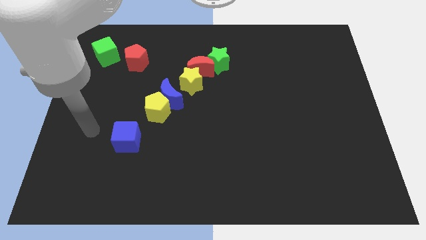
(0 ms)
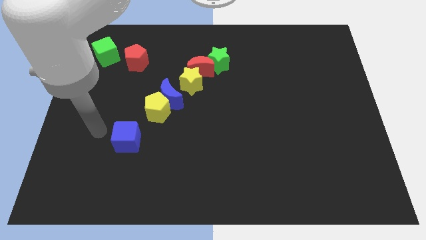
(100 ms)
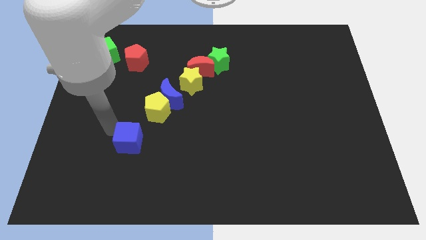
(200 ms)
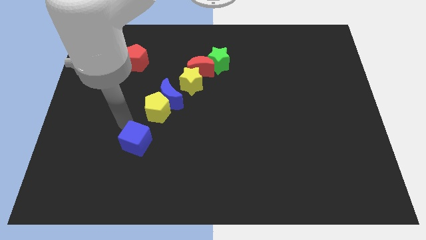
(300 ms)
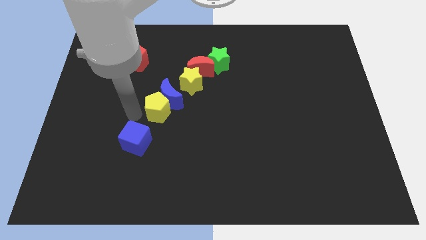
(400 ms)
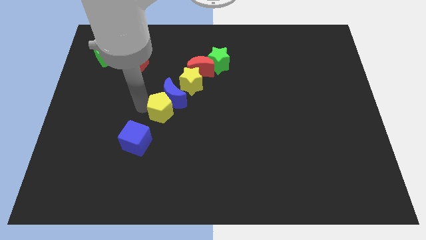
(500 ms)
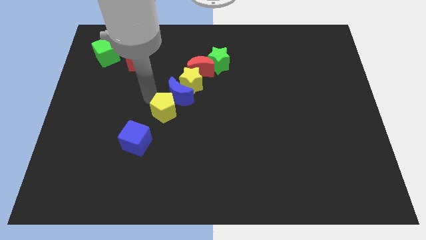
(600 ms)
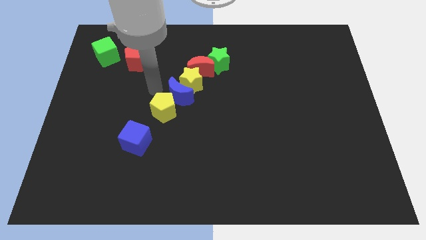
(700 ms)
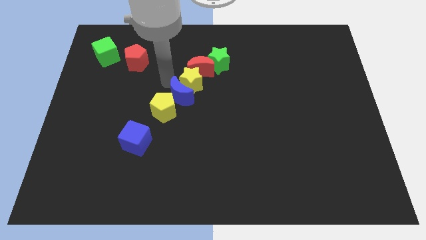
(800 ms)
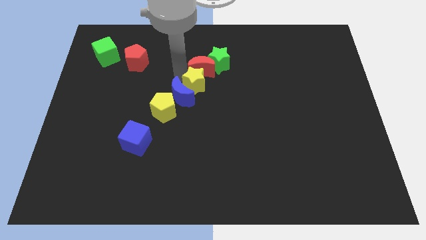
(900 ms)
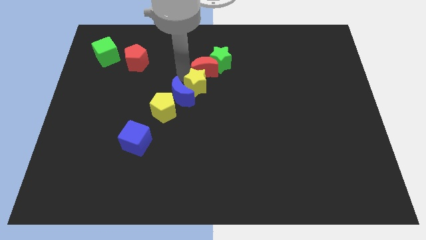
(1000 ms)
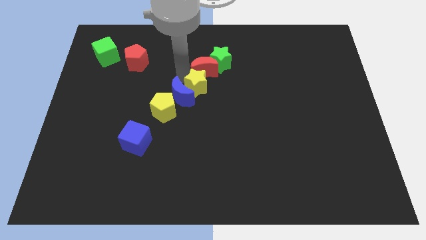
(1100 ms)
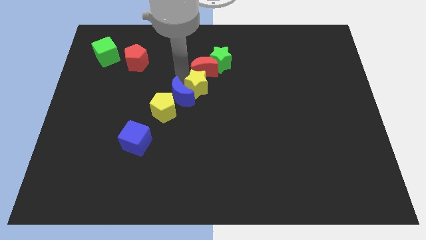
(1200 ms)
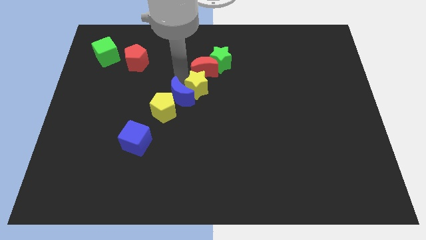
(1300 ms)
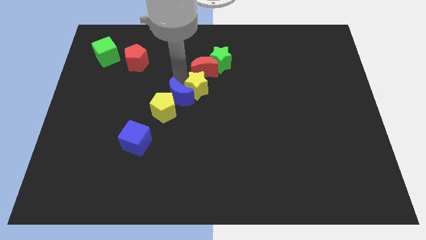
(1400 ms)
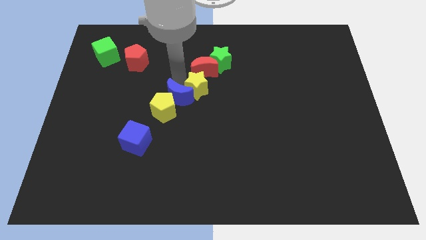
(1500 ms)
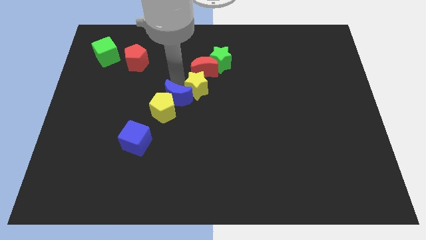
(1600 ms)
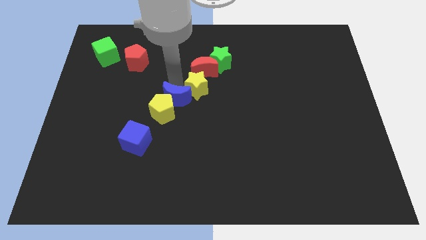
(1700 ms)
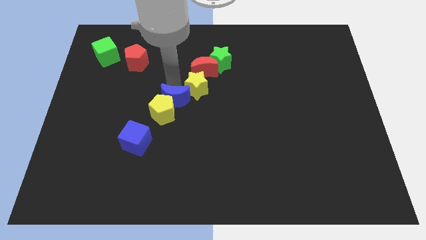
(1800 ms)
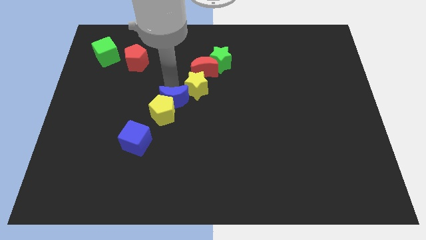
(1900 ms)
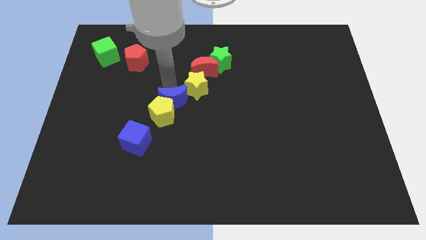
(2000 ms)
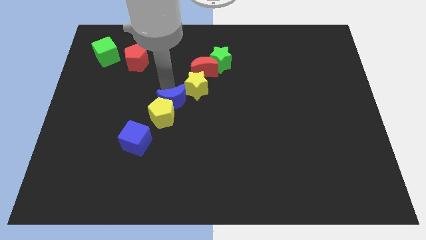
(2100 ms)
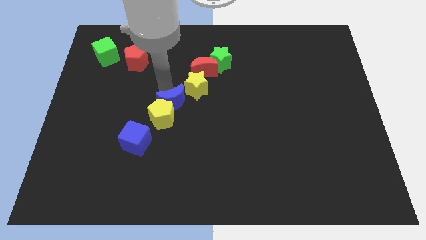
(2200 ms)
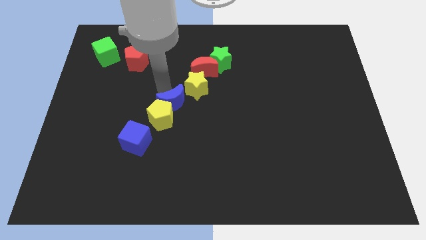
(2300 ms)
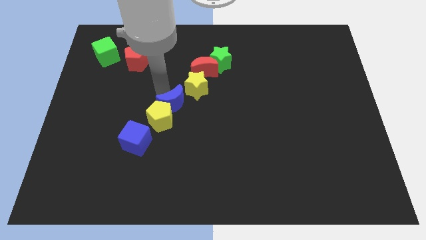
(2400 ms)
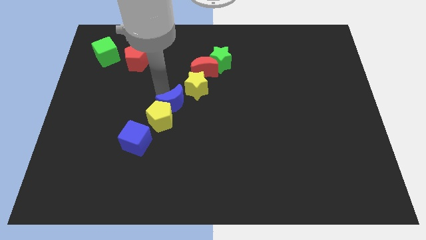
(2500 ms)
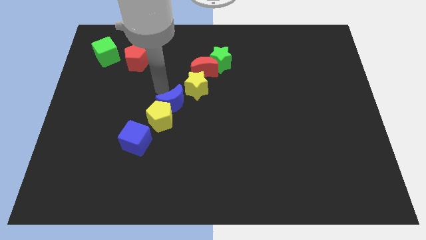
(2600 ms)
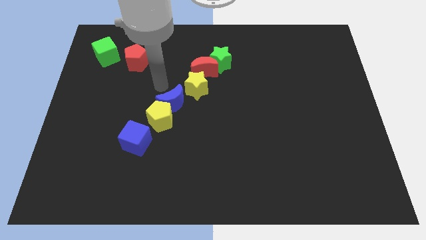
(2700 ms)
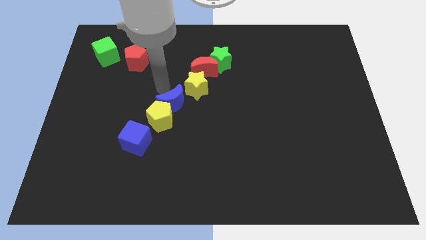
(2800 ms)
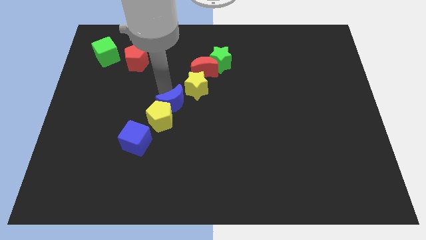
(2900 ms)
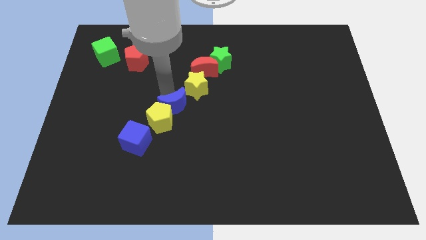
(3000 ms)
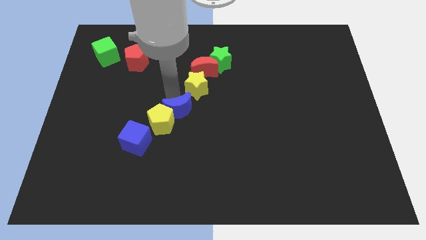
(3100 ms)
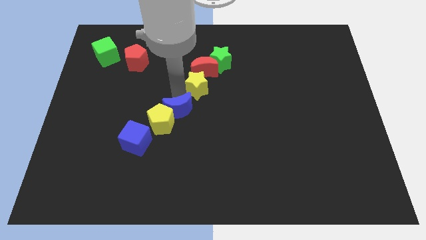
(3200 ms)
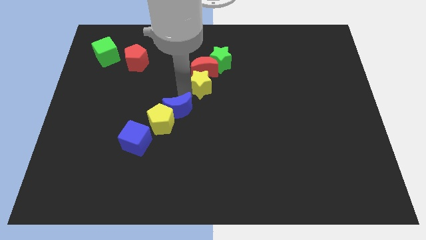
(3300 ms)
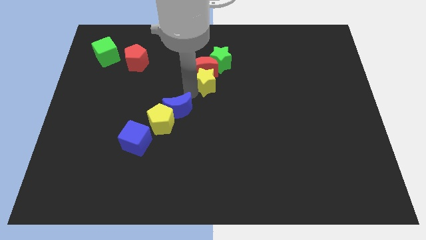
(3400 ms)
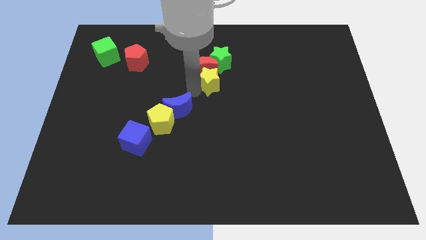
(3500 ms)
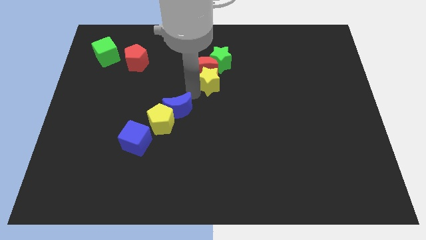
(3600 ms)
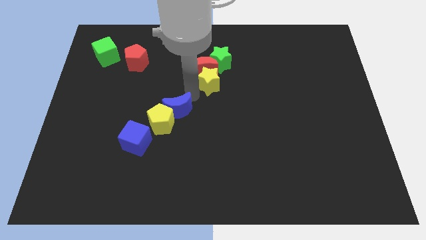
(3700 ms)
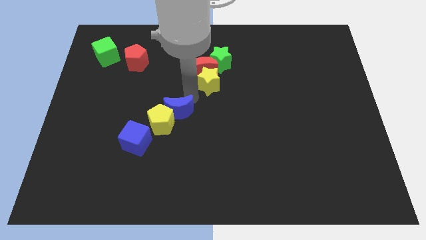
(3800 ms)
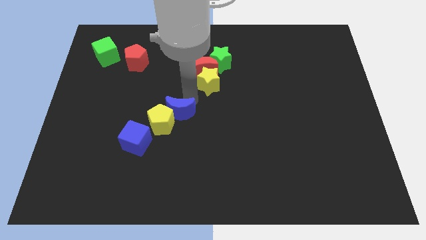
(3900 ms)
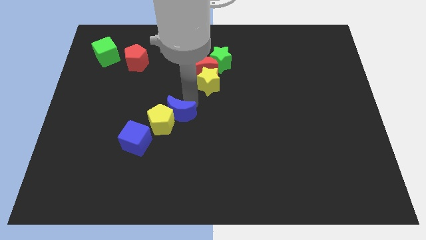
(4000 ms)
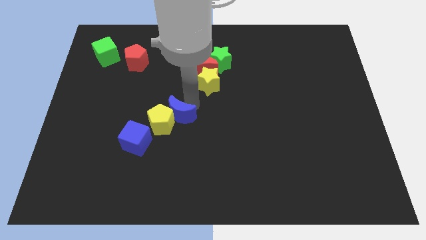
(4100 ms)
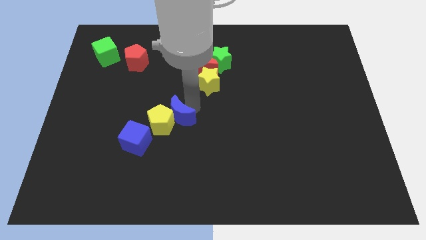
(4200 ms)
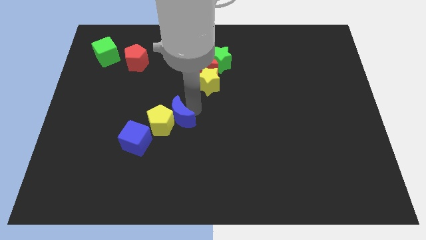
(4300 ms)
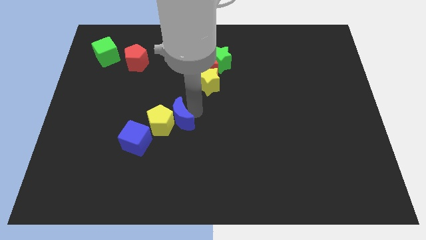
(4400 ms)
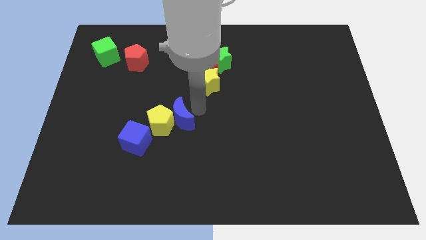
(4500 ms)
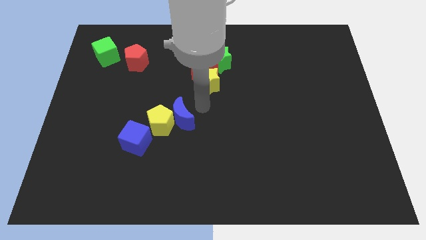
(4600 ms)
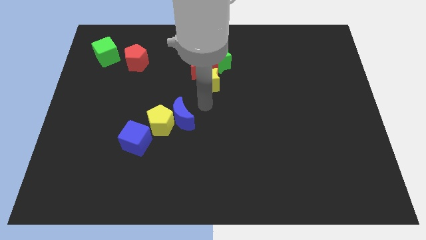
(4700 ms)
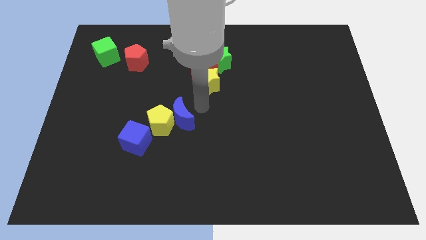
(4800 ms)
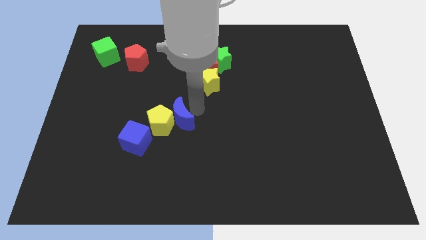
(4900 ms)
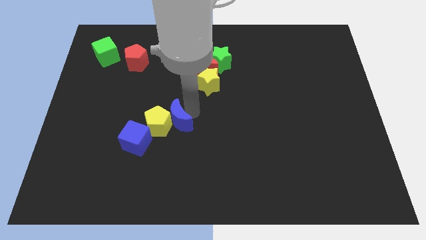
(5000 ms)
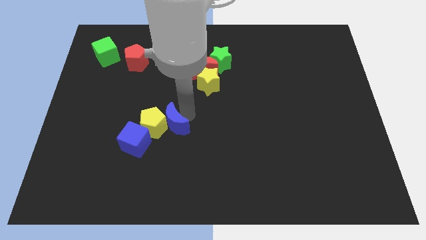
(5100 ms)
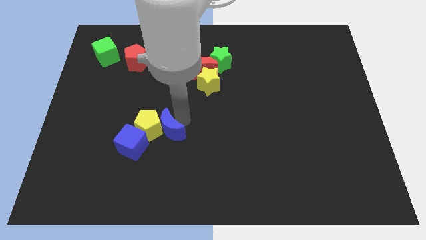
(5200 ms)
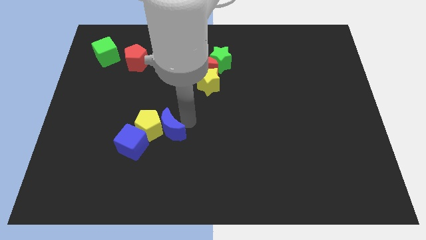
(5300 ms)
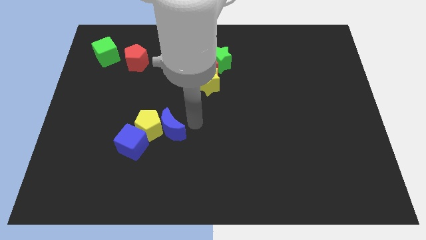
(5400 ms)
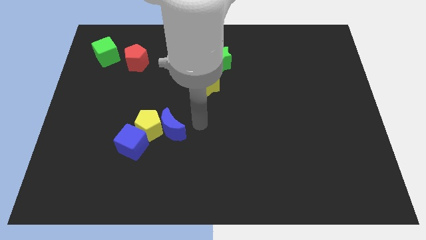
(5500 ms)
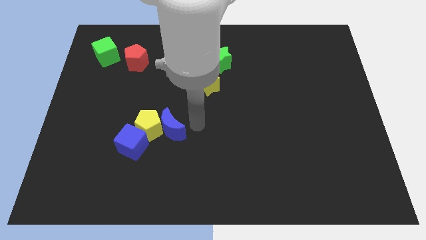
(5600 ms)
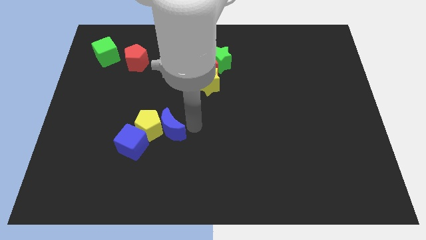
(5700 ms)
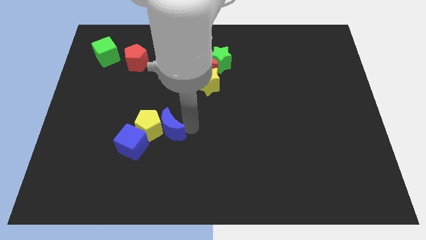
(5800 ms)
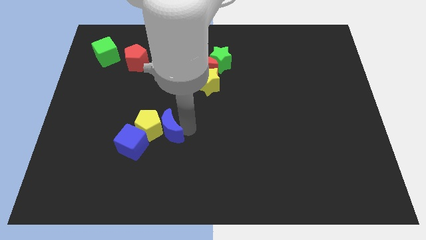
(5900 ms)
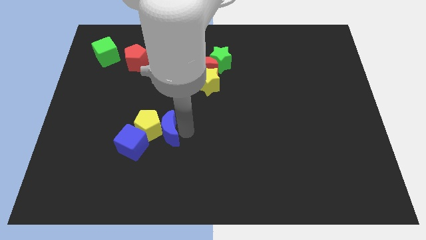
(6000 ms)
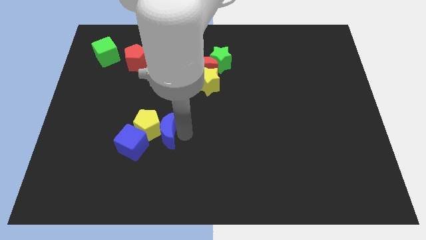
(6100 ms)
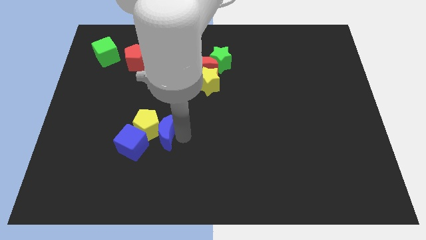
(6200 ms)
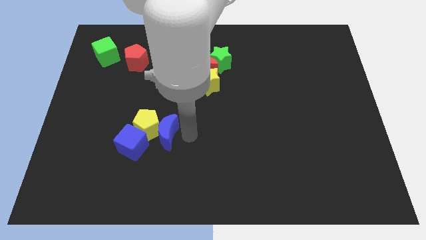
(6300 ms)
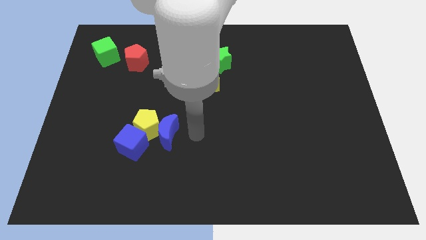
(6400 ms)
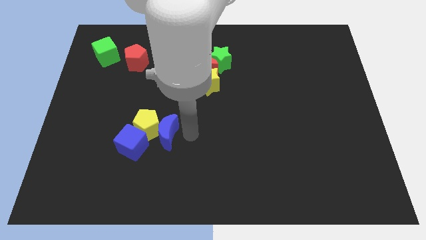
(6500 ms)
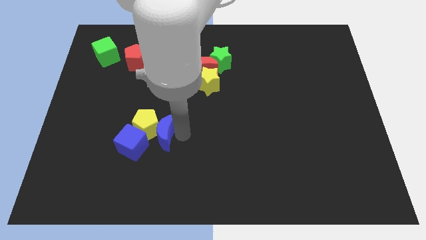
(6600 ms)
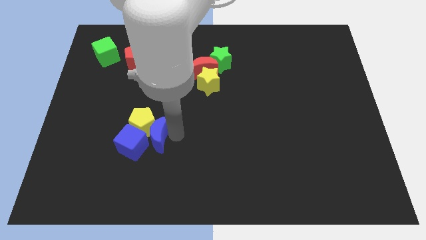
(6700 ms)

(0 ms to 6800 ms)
put the blue moon towards the blue cube
